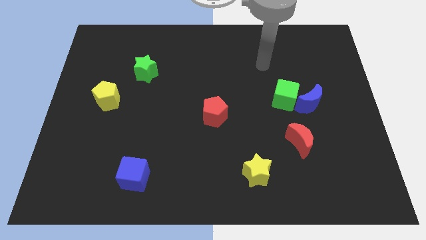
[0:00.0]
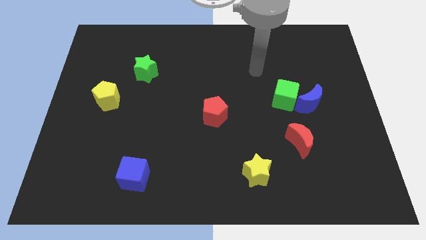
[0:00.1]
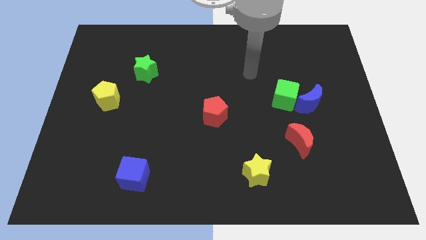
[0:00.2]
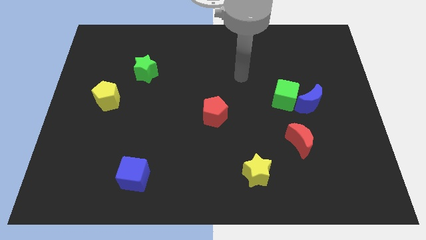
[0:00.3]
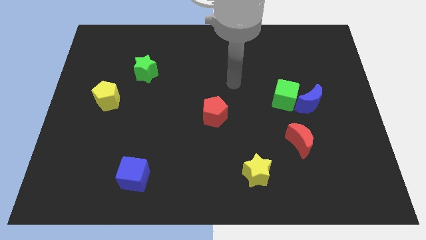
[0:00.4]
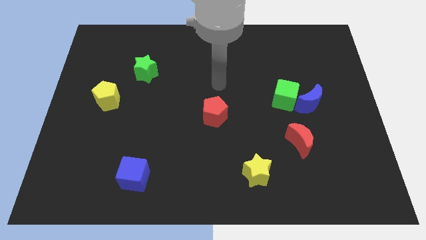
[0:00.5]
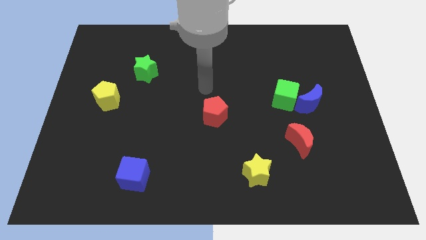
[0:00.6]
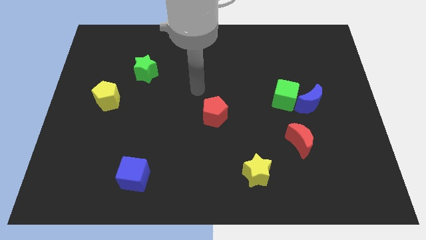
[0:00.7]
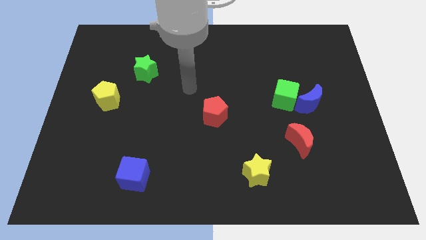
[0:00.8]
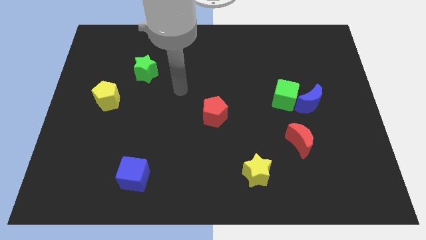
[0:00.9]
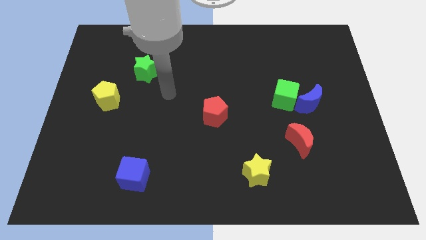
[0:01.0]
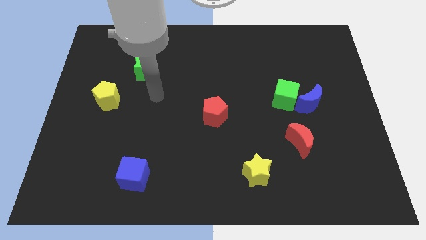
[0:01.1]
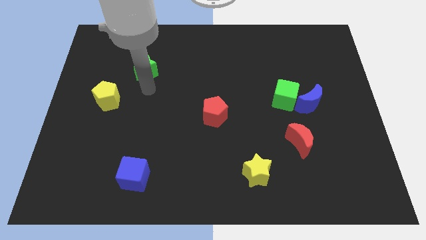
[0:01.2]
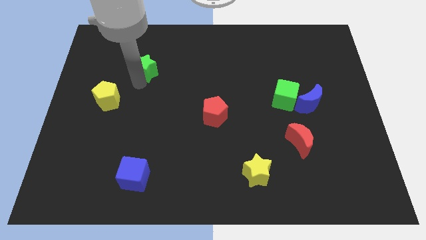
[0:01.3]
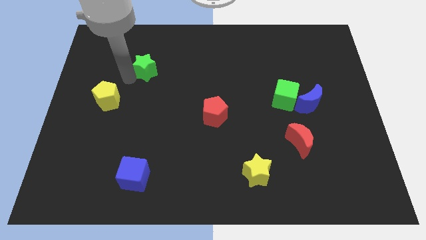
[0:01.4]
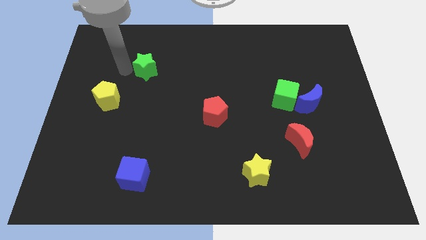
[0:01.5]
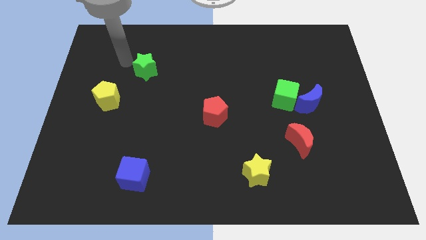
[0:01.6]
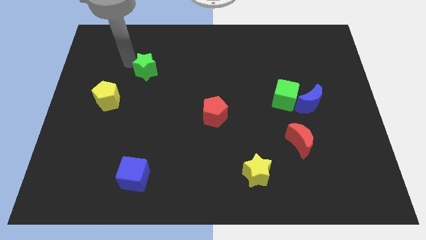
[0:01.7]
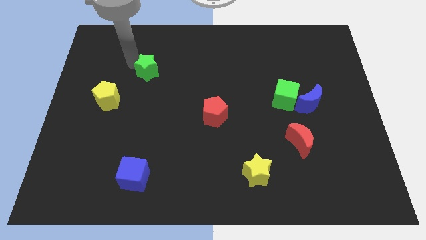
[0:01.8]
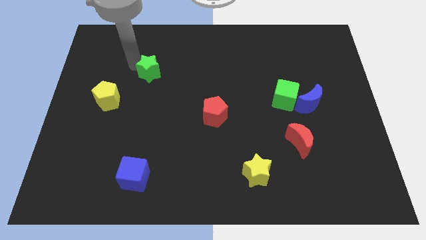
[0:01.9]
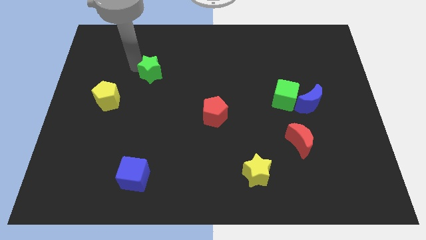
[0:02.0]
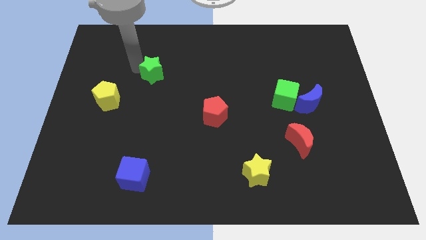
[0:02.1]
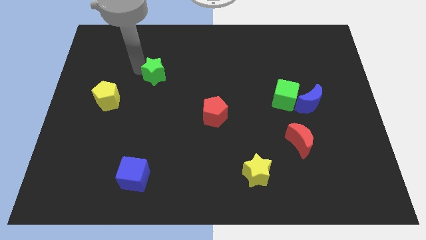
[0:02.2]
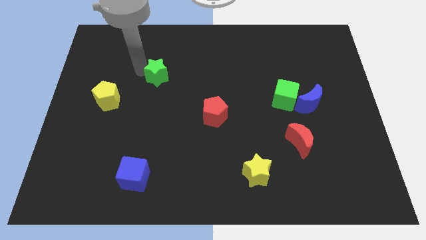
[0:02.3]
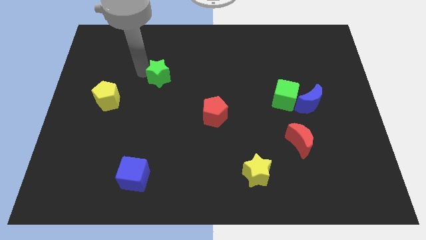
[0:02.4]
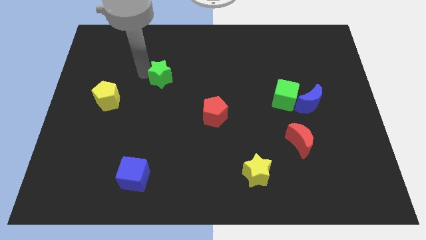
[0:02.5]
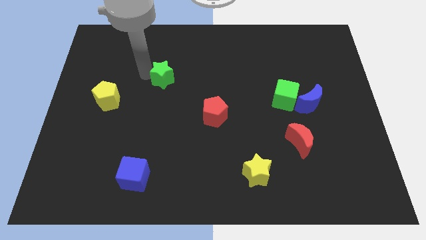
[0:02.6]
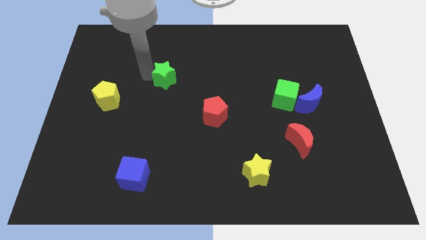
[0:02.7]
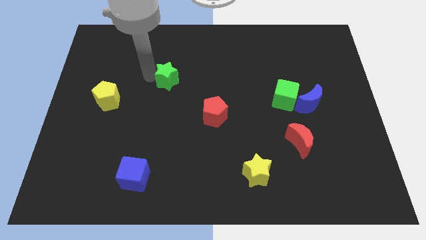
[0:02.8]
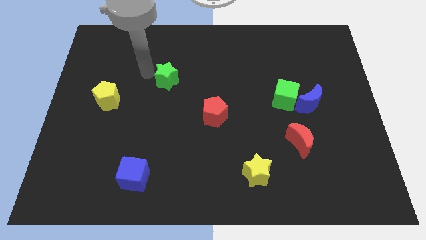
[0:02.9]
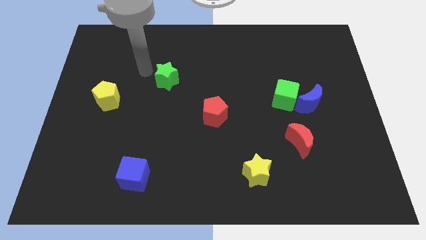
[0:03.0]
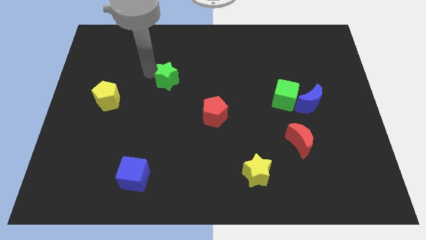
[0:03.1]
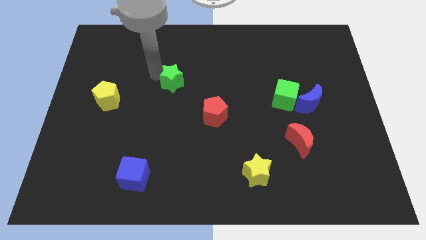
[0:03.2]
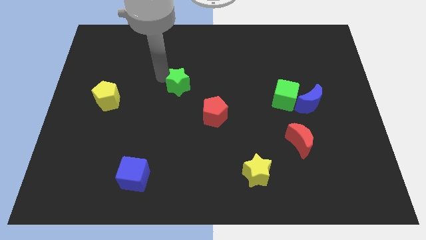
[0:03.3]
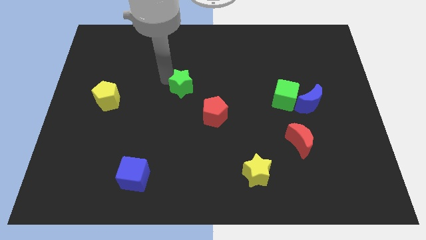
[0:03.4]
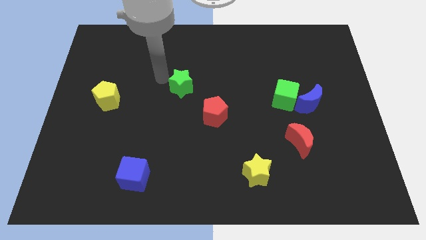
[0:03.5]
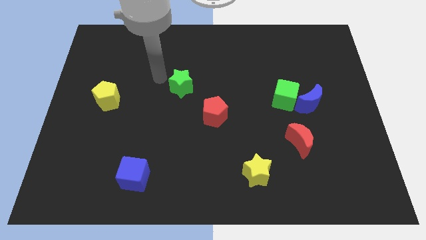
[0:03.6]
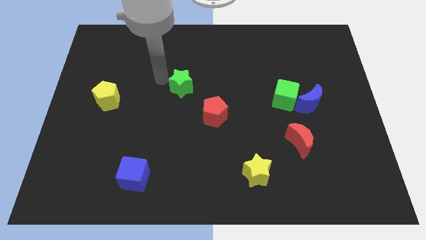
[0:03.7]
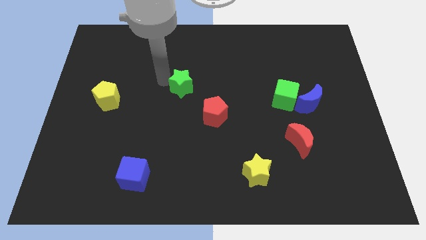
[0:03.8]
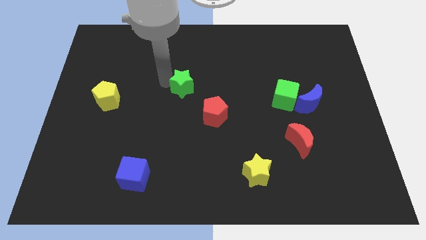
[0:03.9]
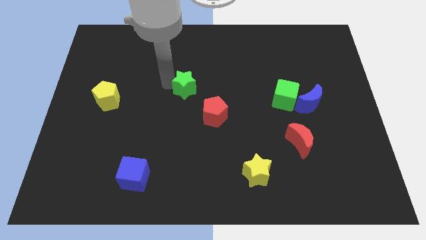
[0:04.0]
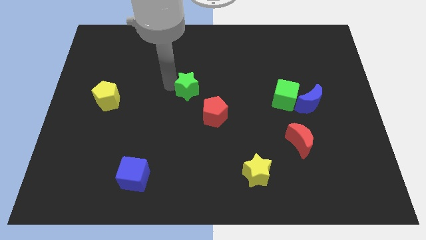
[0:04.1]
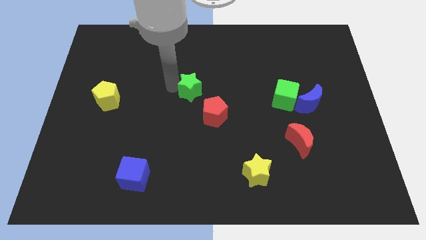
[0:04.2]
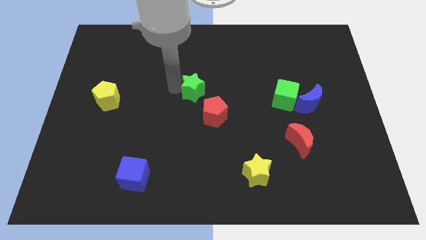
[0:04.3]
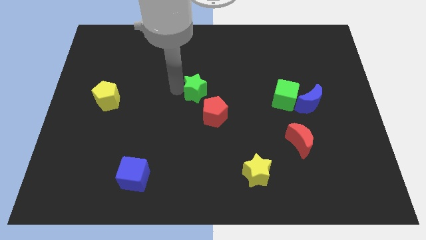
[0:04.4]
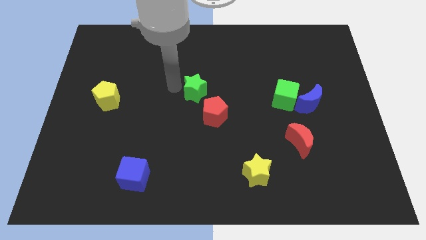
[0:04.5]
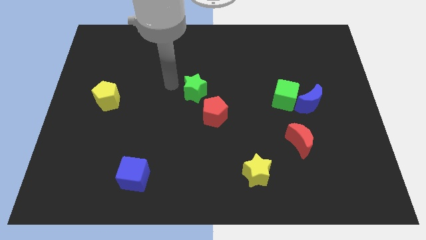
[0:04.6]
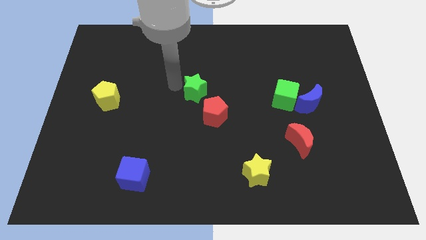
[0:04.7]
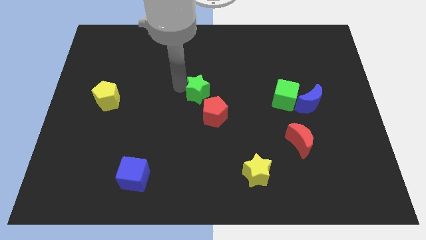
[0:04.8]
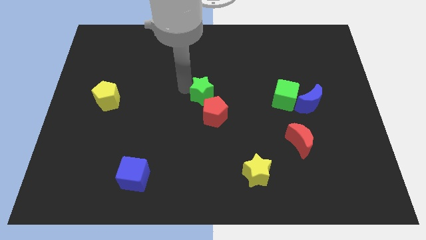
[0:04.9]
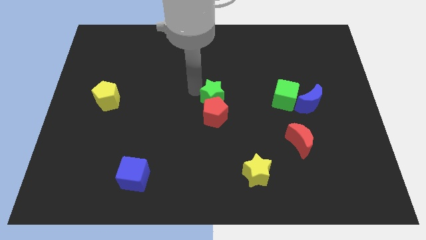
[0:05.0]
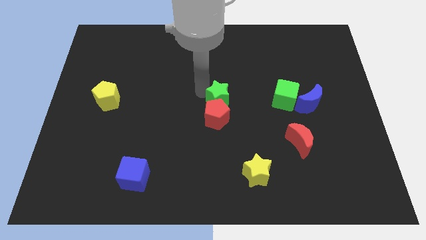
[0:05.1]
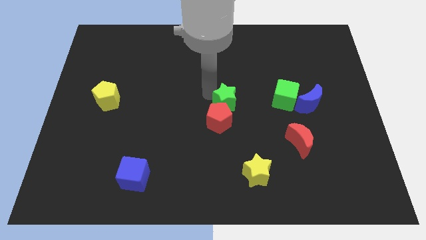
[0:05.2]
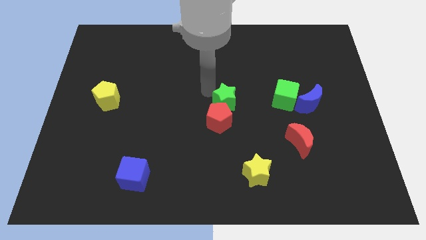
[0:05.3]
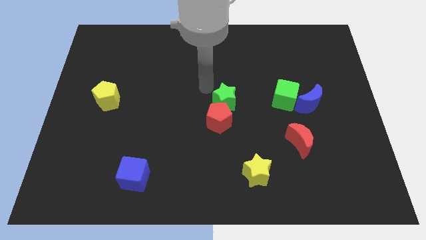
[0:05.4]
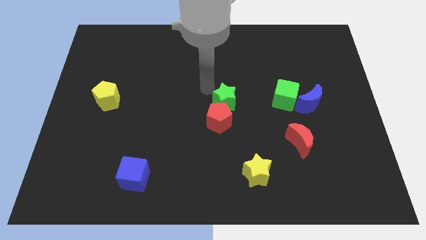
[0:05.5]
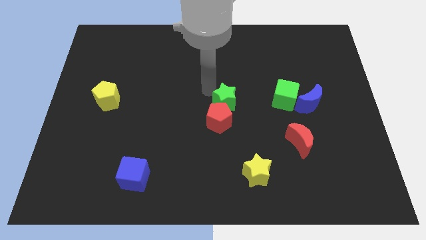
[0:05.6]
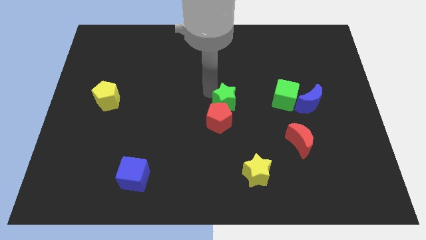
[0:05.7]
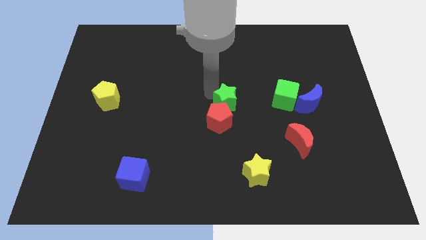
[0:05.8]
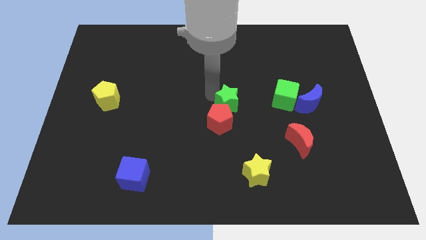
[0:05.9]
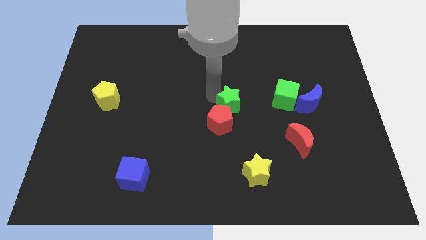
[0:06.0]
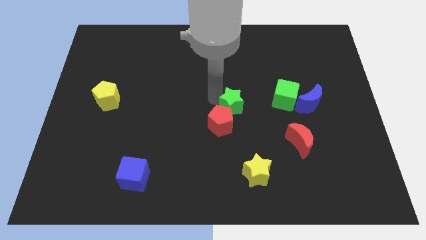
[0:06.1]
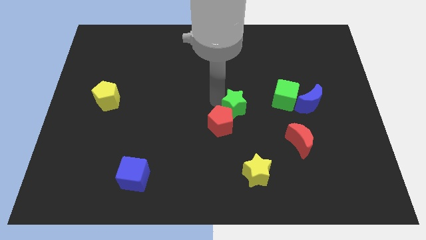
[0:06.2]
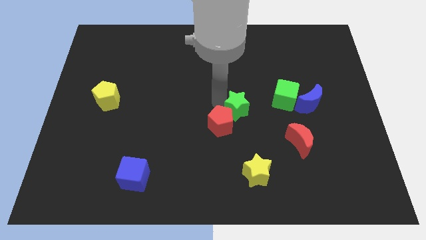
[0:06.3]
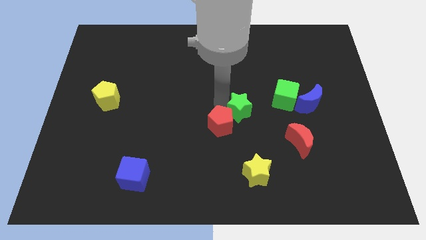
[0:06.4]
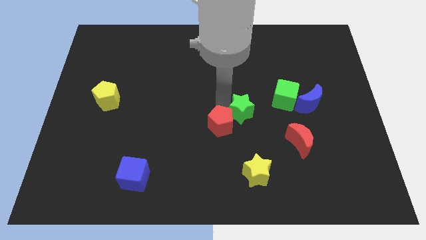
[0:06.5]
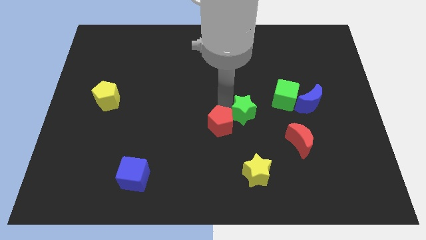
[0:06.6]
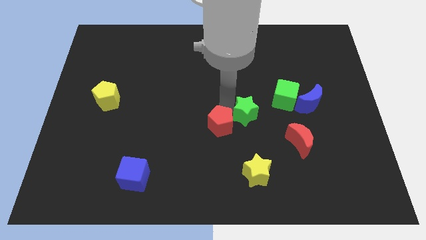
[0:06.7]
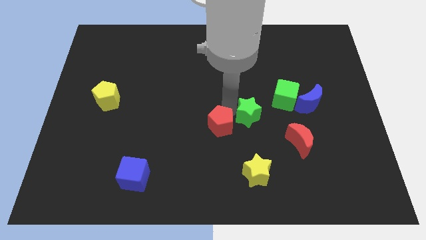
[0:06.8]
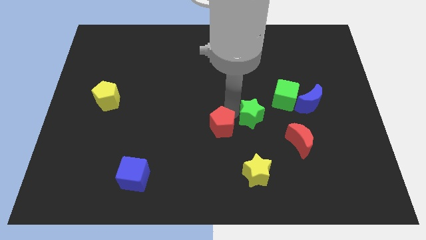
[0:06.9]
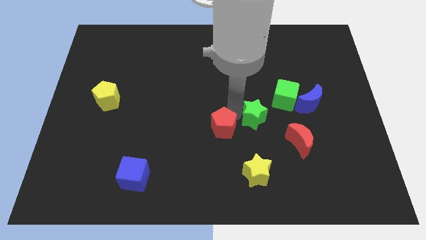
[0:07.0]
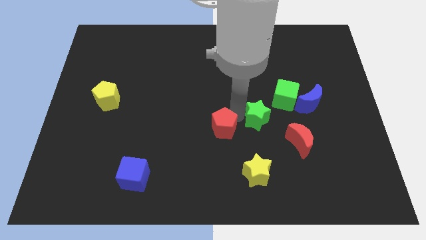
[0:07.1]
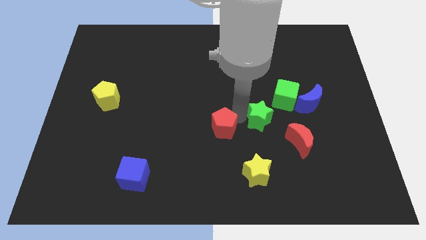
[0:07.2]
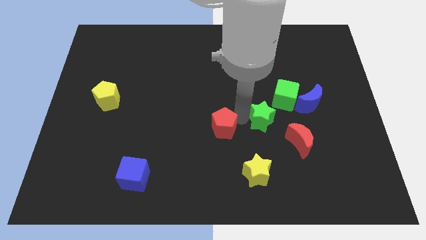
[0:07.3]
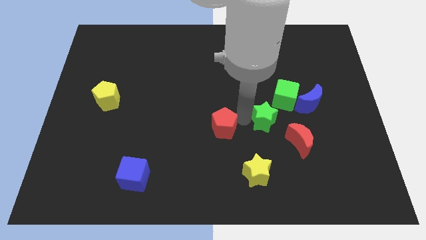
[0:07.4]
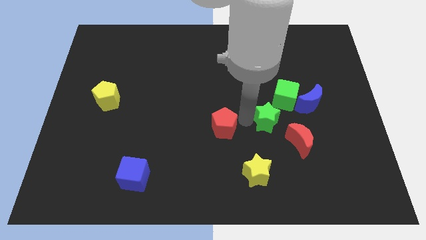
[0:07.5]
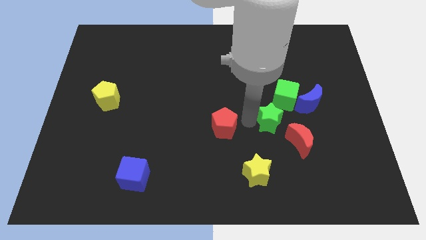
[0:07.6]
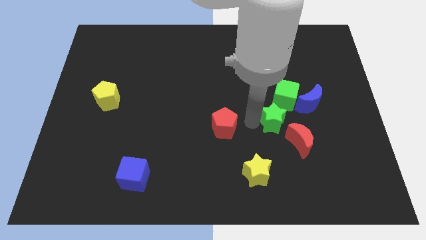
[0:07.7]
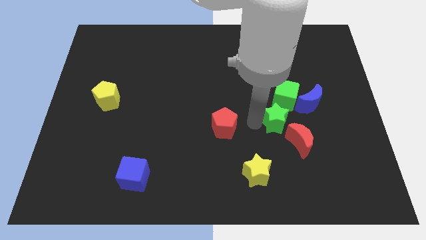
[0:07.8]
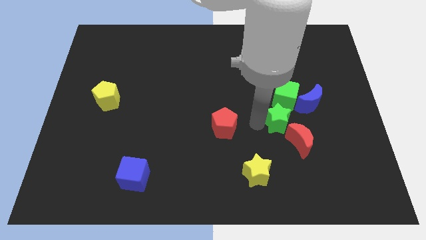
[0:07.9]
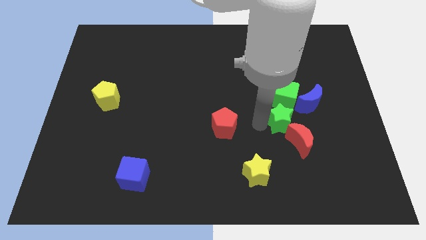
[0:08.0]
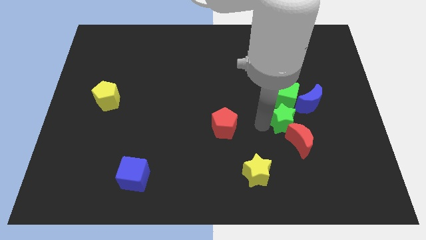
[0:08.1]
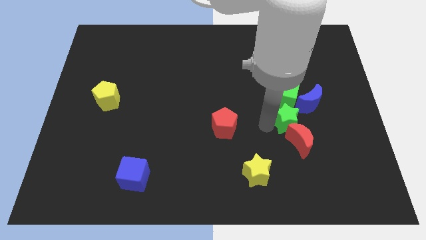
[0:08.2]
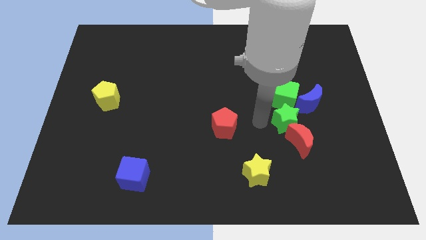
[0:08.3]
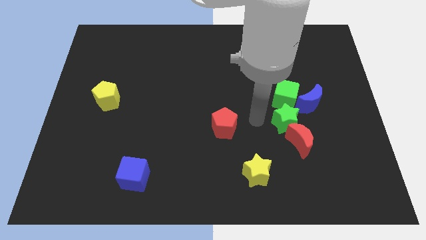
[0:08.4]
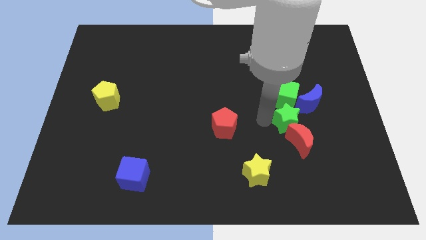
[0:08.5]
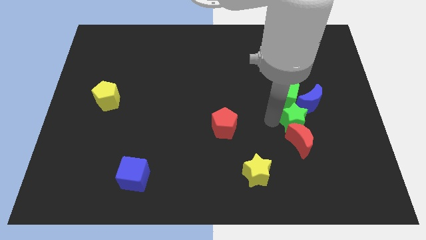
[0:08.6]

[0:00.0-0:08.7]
push the green star to the top right side of the red moon
